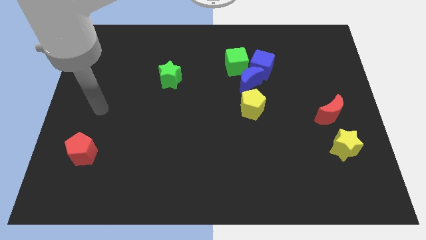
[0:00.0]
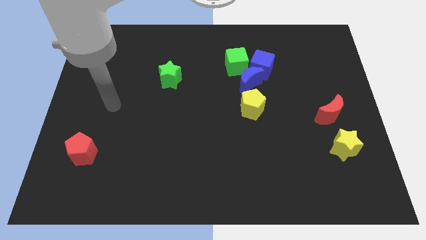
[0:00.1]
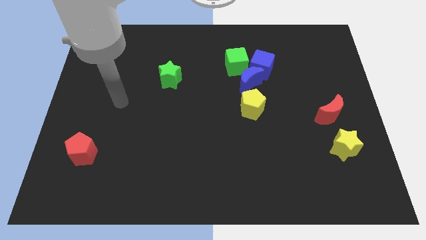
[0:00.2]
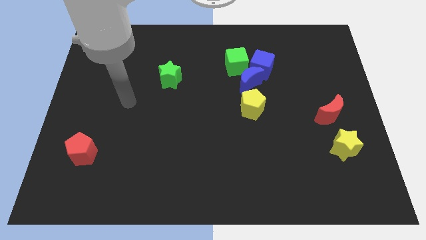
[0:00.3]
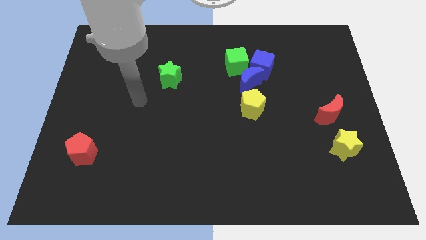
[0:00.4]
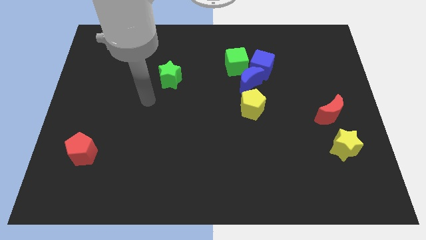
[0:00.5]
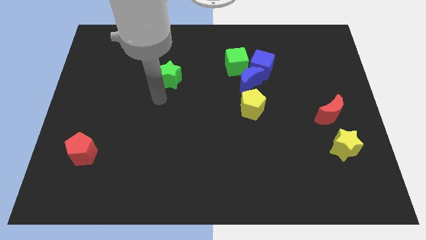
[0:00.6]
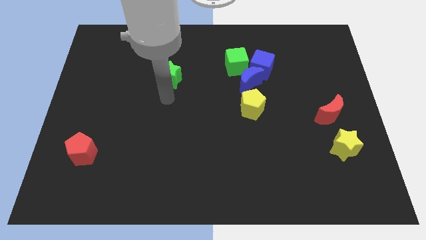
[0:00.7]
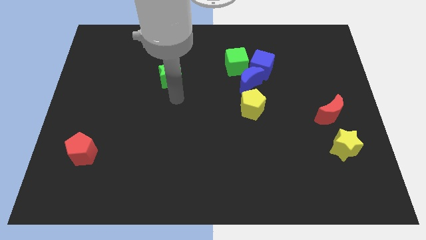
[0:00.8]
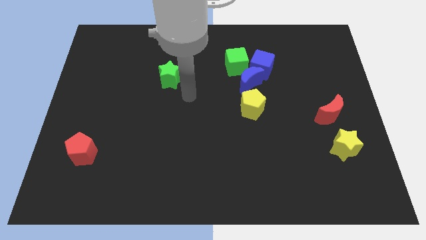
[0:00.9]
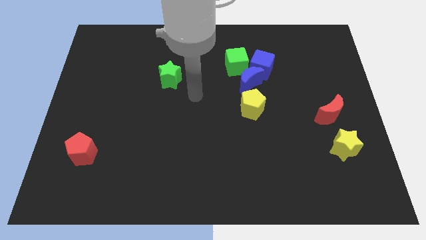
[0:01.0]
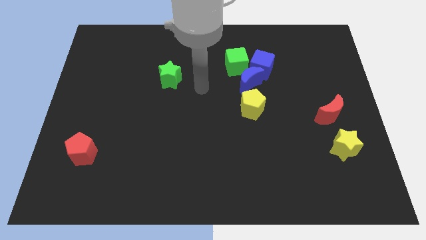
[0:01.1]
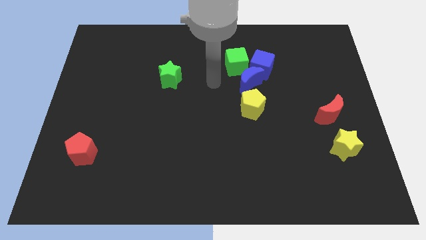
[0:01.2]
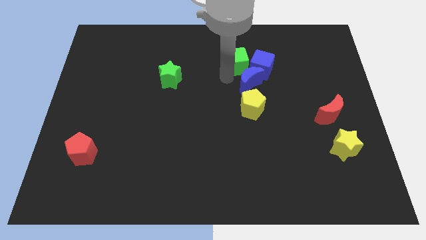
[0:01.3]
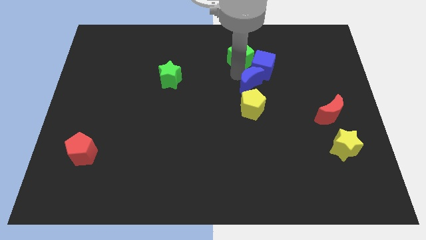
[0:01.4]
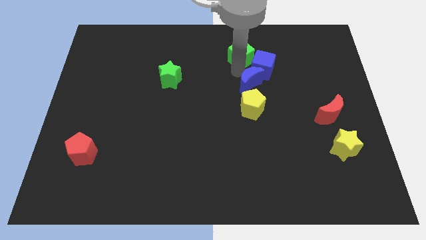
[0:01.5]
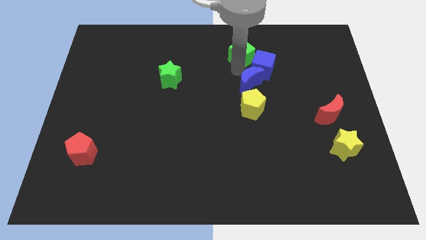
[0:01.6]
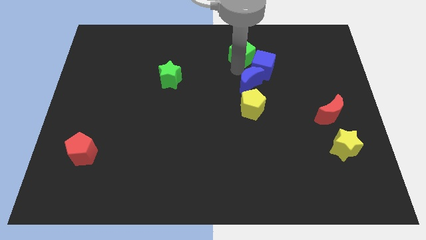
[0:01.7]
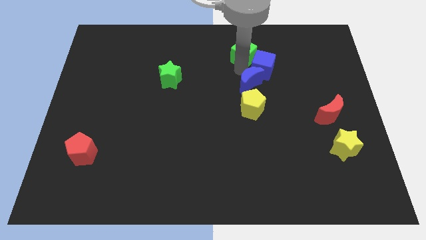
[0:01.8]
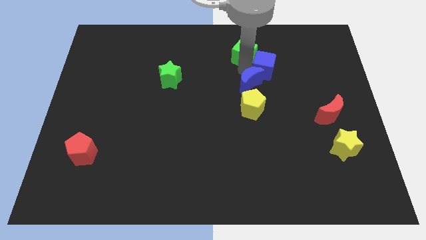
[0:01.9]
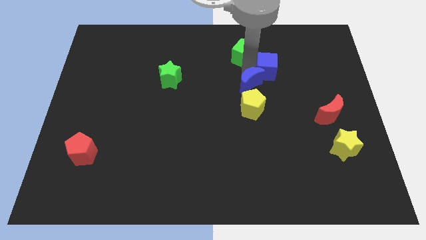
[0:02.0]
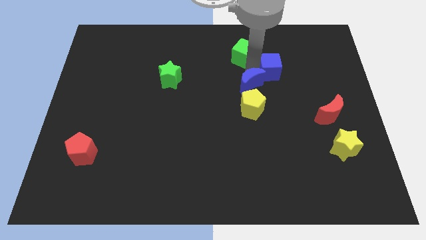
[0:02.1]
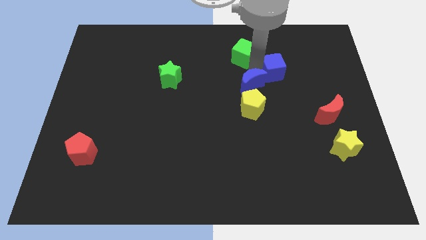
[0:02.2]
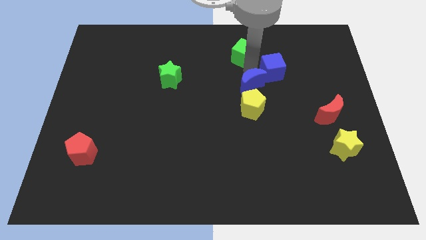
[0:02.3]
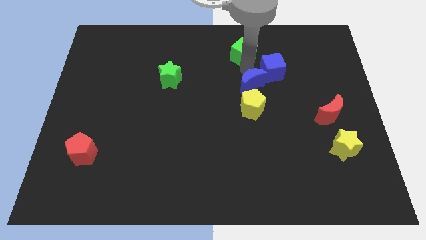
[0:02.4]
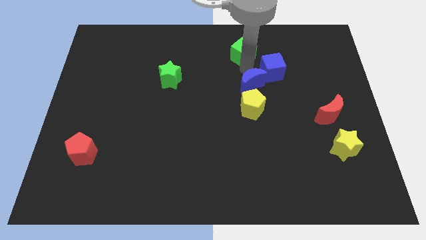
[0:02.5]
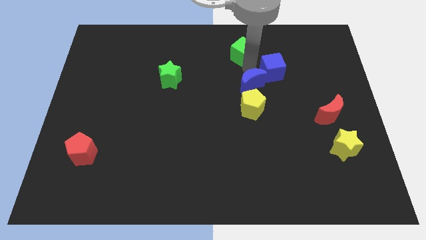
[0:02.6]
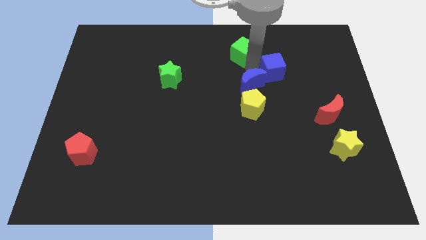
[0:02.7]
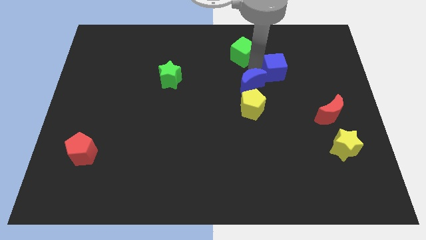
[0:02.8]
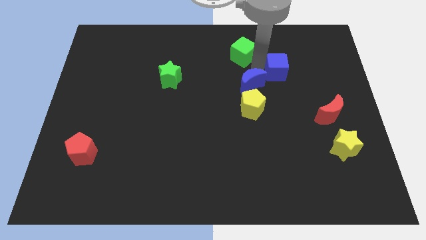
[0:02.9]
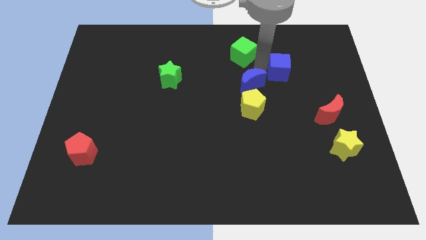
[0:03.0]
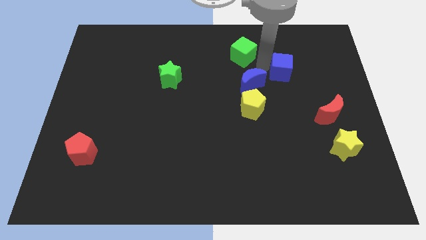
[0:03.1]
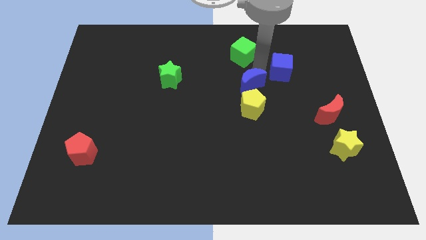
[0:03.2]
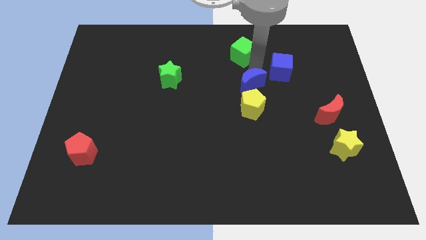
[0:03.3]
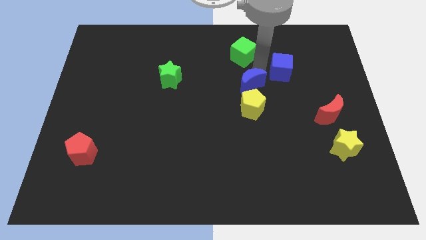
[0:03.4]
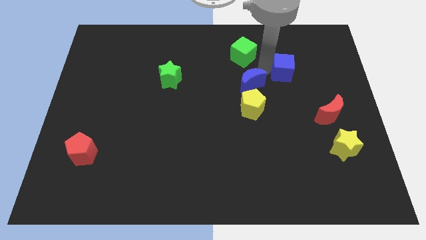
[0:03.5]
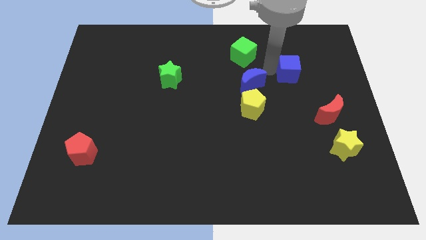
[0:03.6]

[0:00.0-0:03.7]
move the blue cube away from the blue moon and green cube

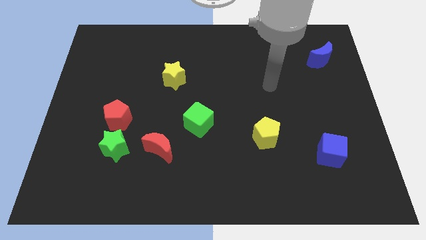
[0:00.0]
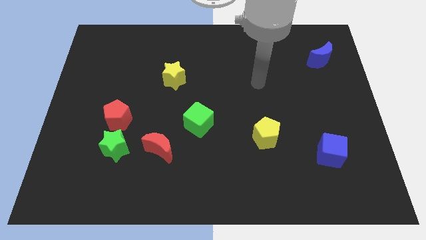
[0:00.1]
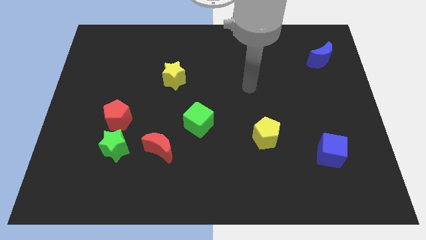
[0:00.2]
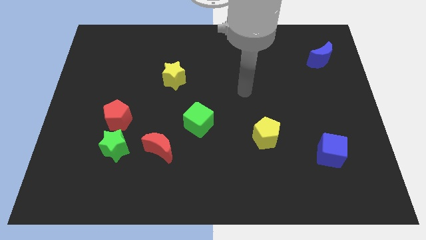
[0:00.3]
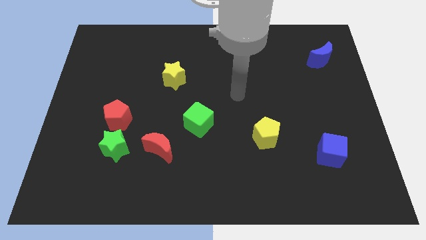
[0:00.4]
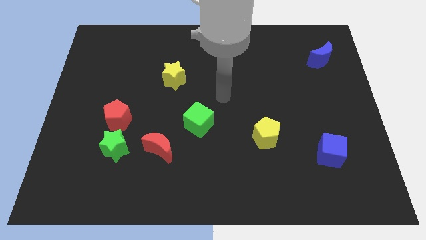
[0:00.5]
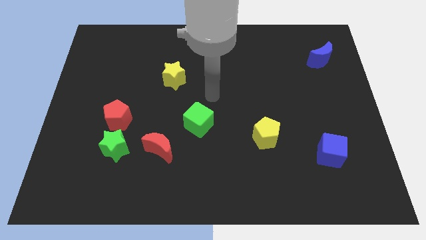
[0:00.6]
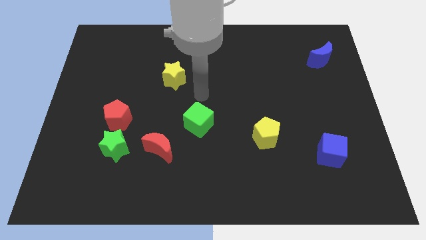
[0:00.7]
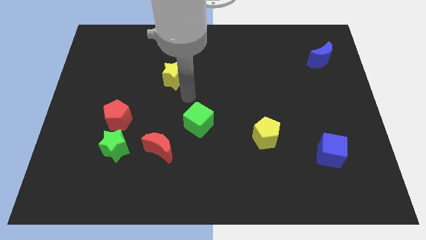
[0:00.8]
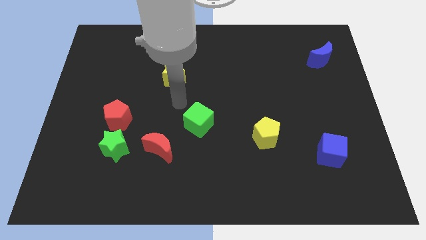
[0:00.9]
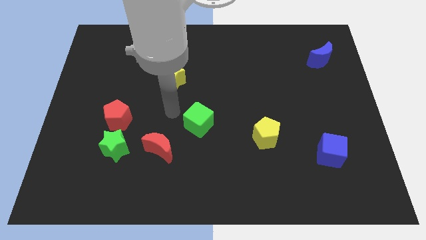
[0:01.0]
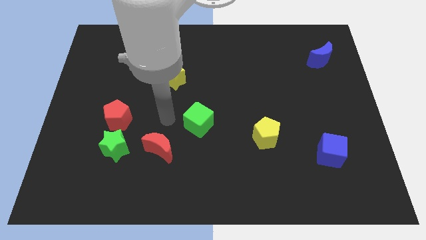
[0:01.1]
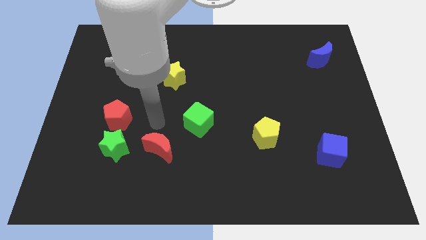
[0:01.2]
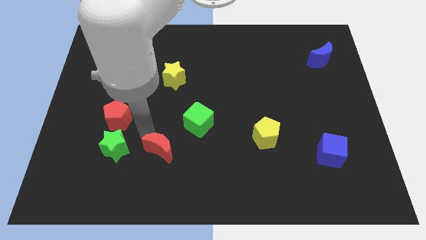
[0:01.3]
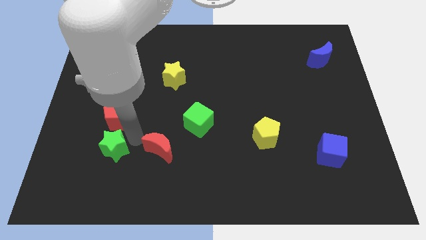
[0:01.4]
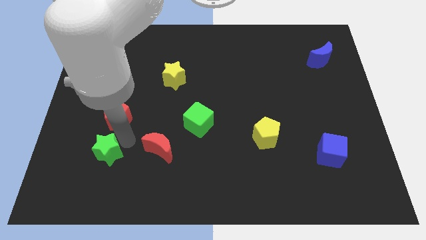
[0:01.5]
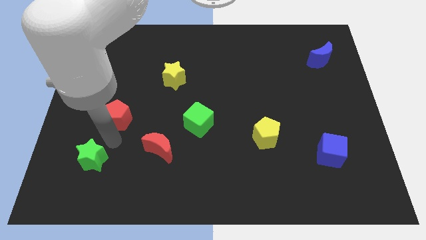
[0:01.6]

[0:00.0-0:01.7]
separate the red pentagon from the green star

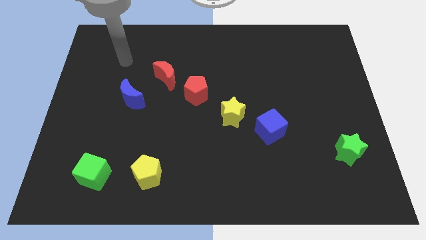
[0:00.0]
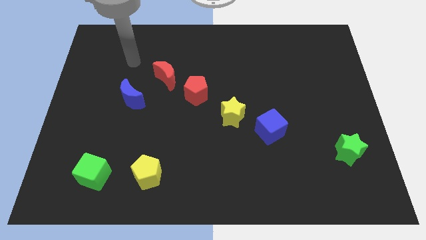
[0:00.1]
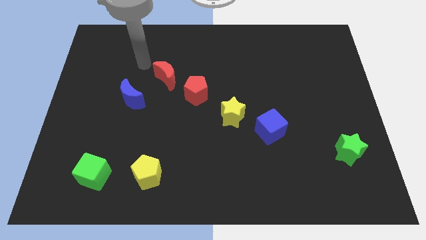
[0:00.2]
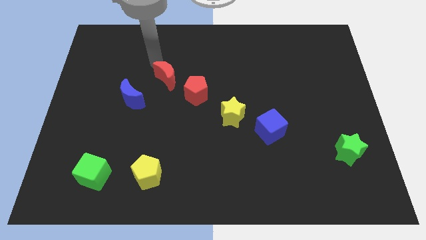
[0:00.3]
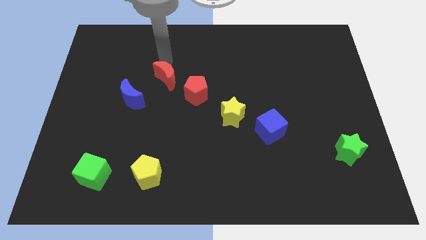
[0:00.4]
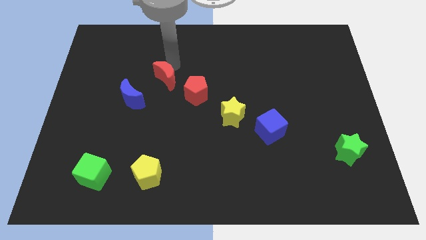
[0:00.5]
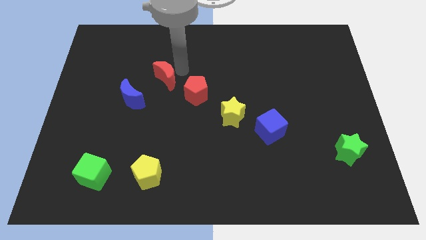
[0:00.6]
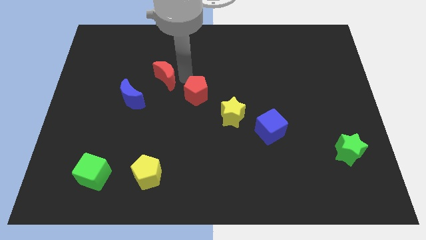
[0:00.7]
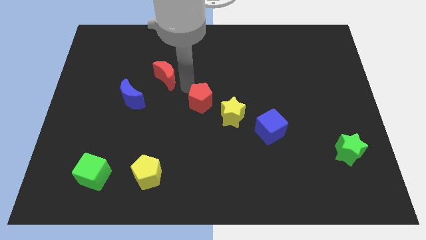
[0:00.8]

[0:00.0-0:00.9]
separate the red moon from the red pentagon

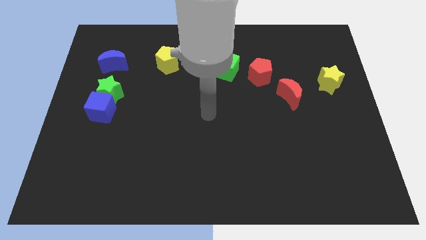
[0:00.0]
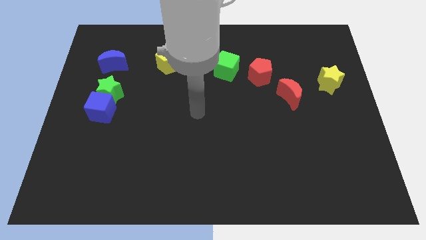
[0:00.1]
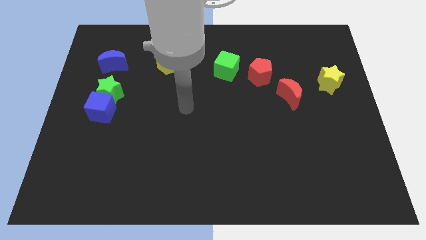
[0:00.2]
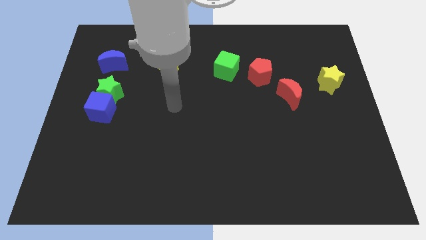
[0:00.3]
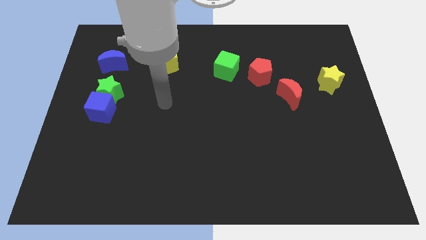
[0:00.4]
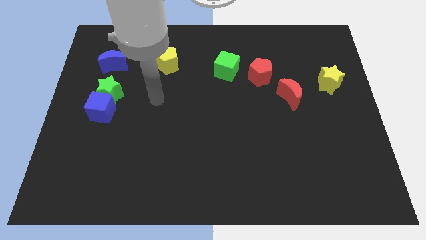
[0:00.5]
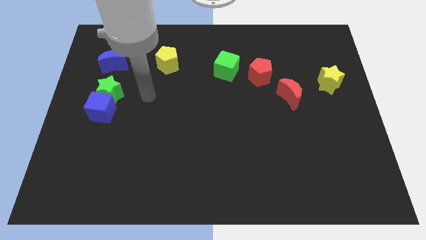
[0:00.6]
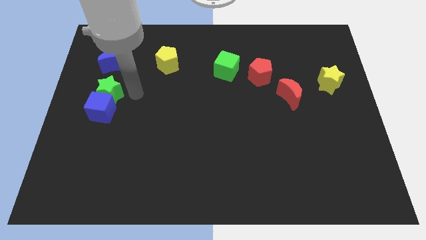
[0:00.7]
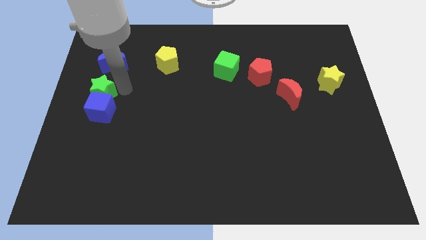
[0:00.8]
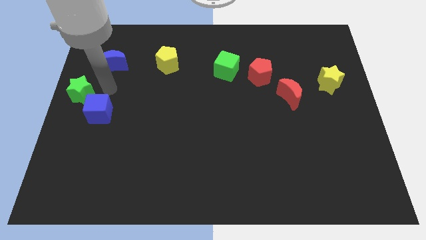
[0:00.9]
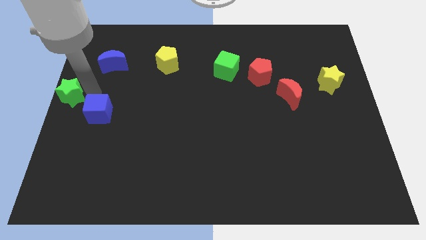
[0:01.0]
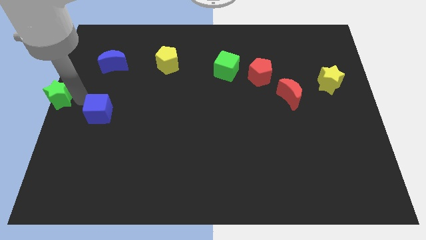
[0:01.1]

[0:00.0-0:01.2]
separate the blue cube from the green star

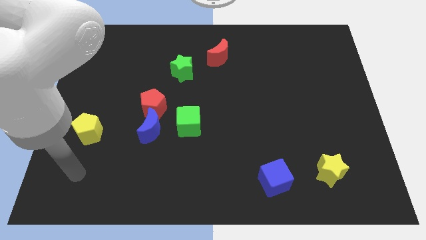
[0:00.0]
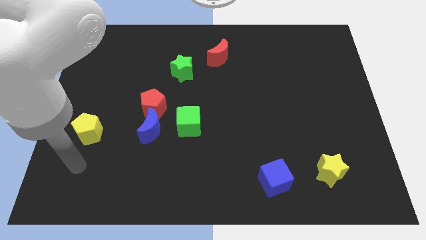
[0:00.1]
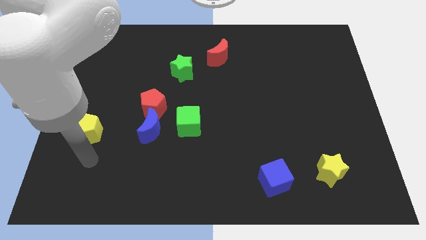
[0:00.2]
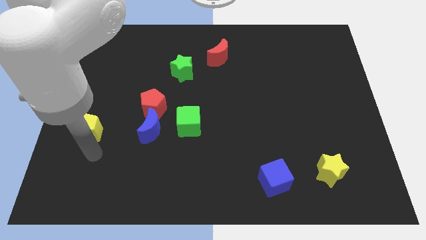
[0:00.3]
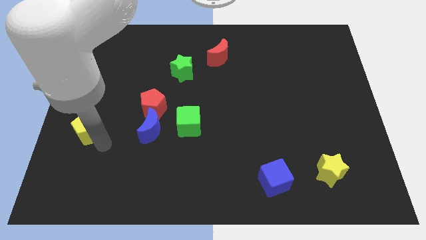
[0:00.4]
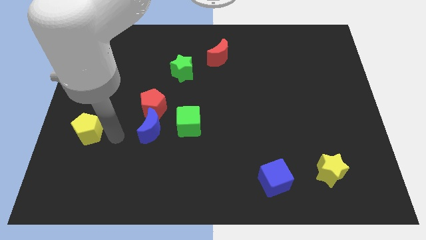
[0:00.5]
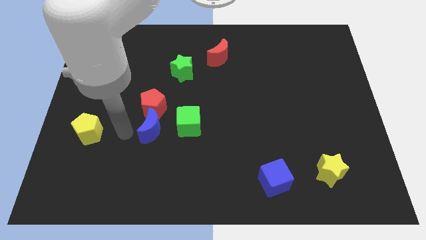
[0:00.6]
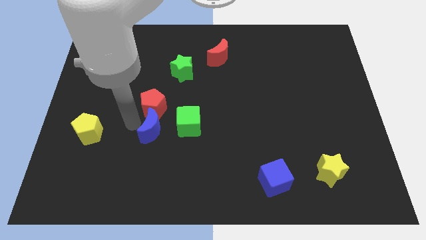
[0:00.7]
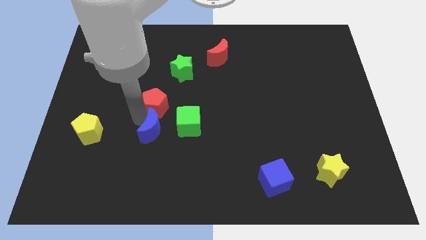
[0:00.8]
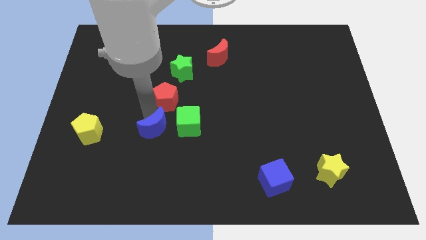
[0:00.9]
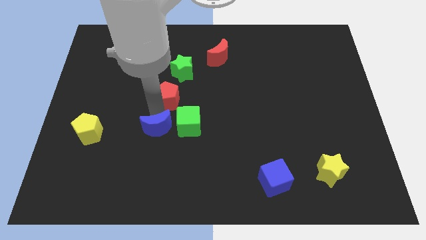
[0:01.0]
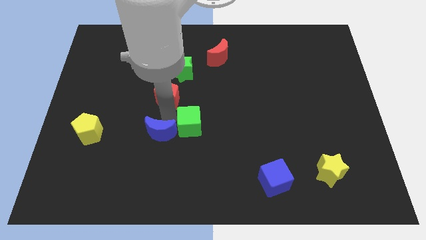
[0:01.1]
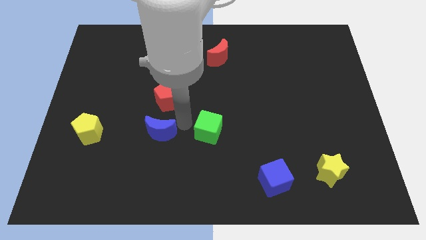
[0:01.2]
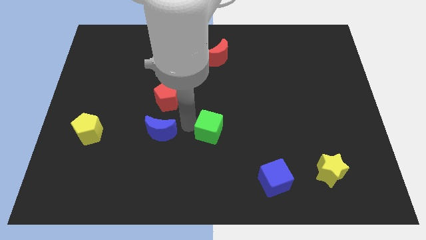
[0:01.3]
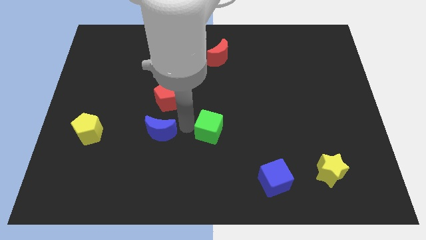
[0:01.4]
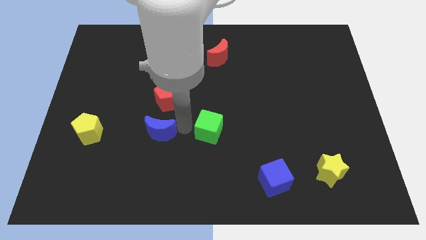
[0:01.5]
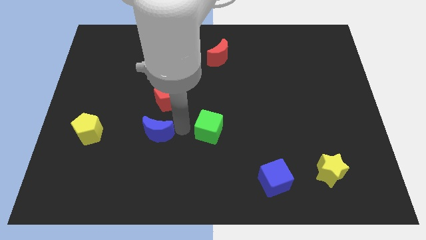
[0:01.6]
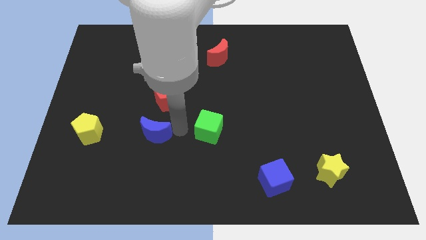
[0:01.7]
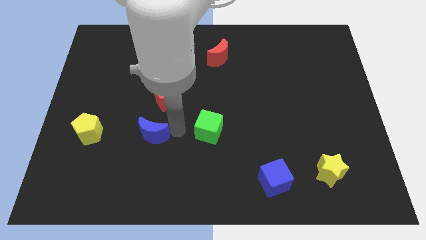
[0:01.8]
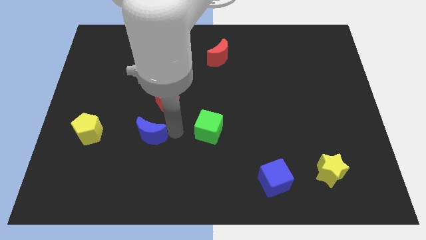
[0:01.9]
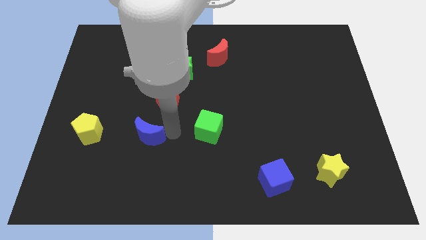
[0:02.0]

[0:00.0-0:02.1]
pull the blue moon apart from the red pentagon and green cube
